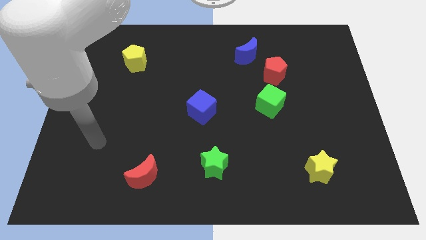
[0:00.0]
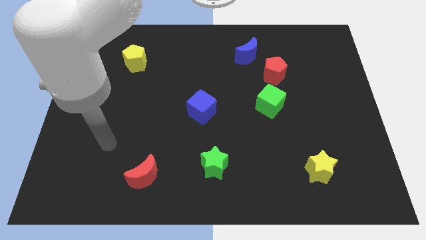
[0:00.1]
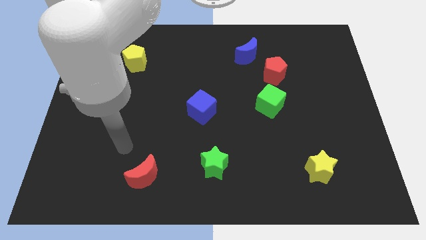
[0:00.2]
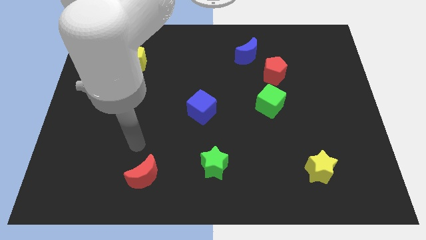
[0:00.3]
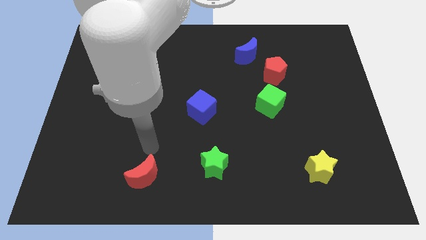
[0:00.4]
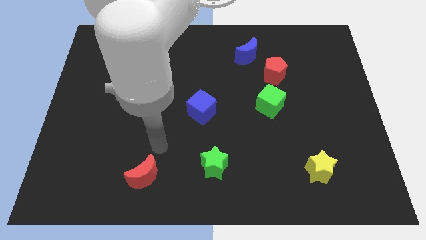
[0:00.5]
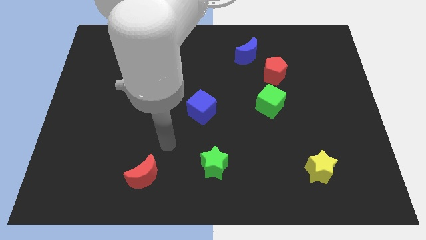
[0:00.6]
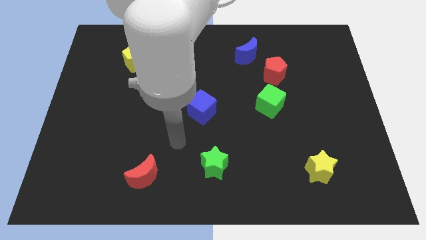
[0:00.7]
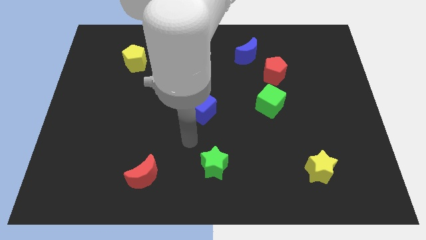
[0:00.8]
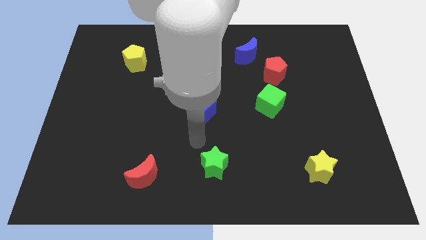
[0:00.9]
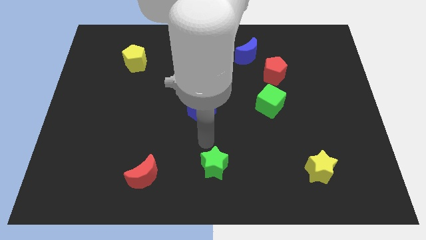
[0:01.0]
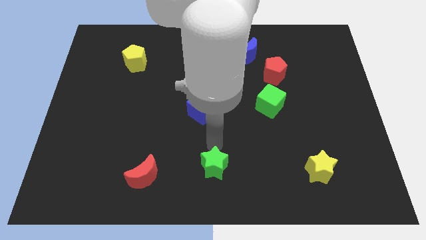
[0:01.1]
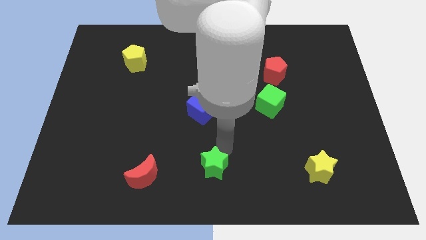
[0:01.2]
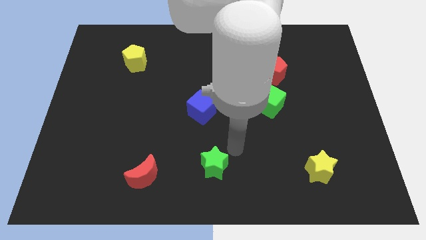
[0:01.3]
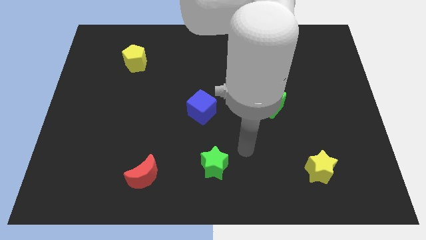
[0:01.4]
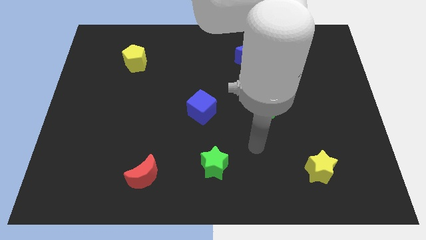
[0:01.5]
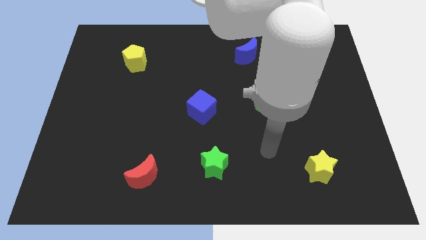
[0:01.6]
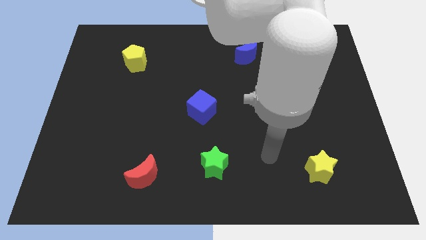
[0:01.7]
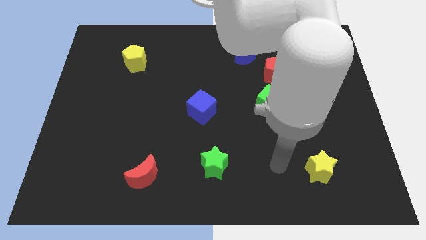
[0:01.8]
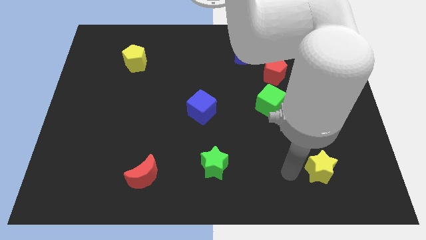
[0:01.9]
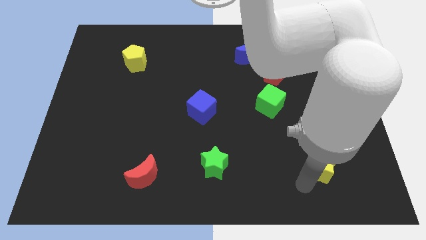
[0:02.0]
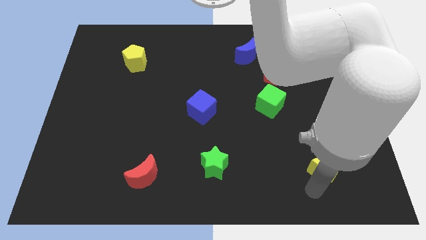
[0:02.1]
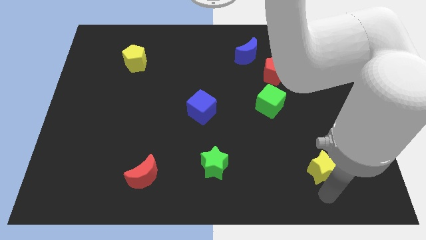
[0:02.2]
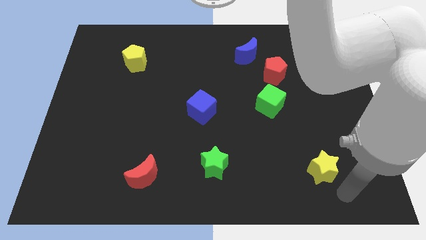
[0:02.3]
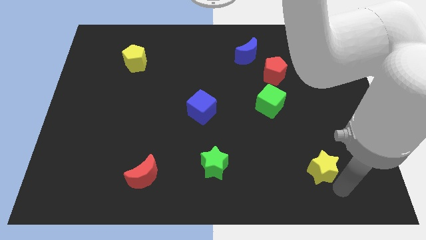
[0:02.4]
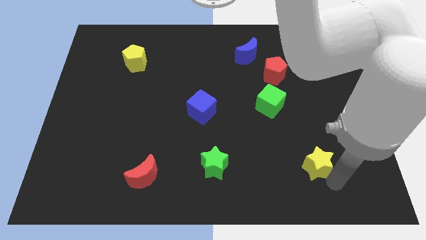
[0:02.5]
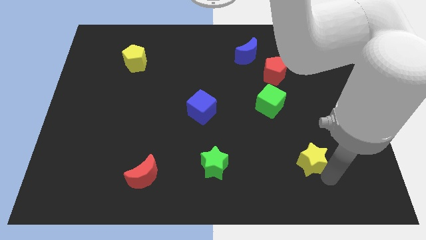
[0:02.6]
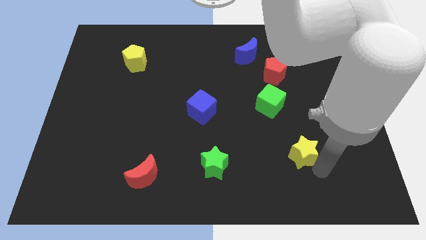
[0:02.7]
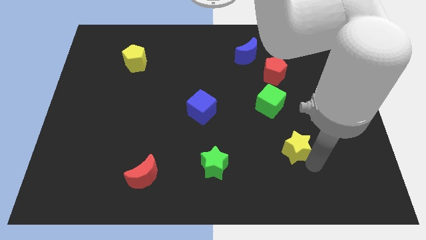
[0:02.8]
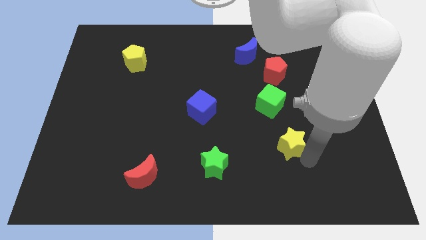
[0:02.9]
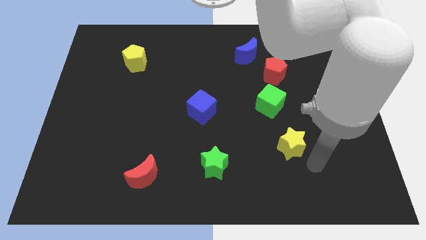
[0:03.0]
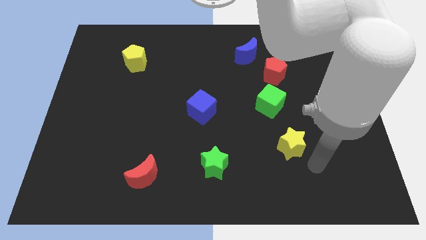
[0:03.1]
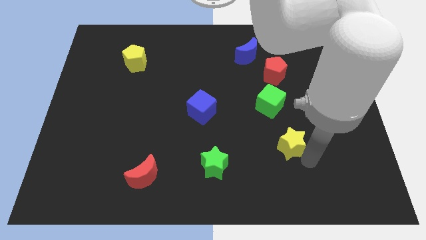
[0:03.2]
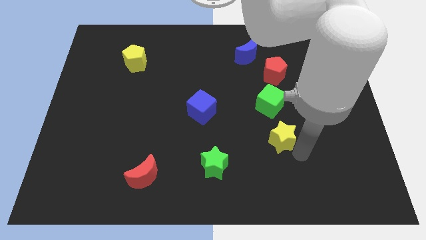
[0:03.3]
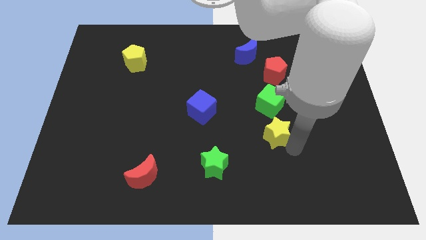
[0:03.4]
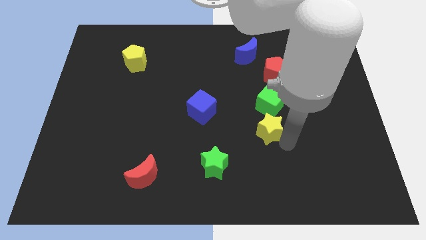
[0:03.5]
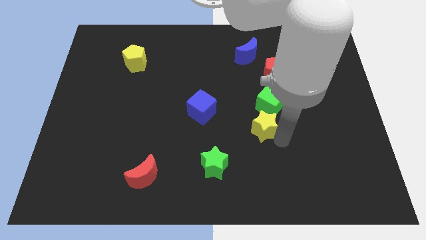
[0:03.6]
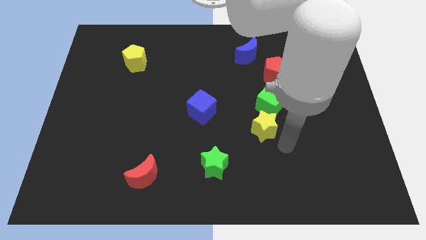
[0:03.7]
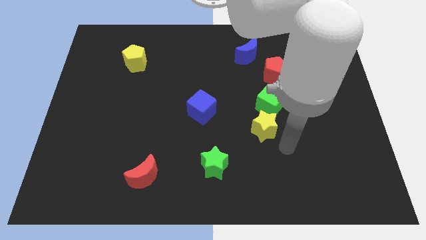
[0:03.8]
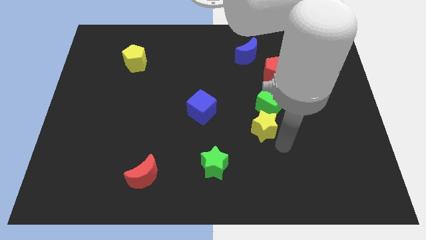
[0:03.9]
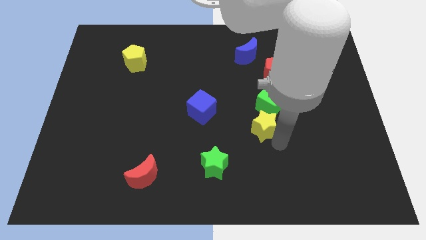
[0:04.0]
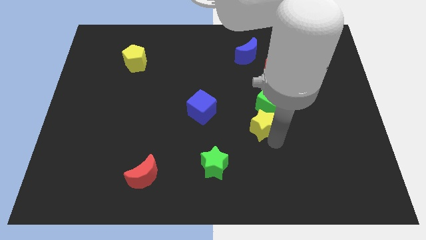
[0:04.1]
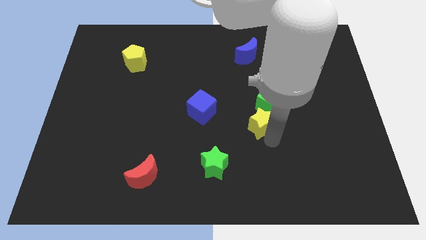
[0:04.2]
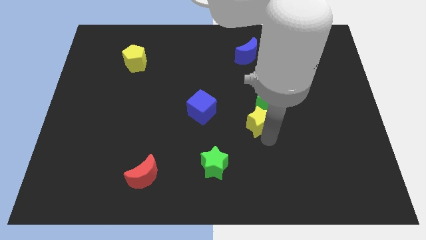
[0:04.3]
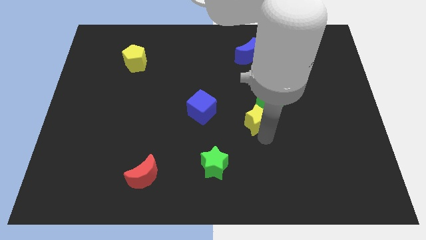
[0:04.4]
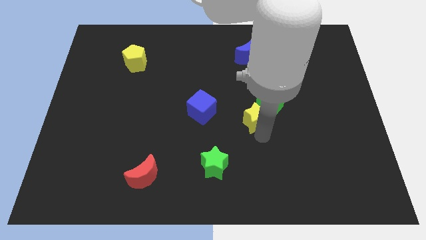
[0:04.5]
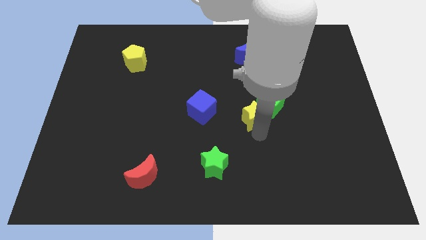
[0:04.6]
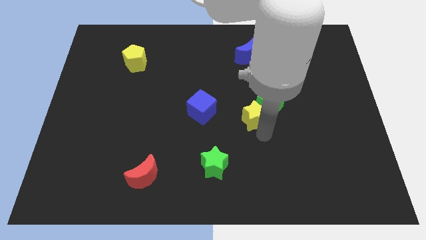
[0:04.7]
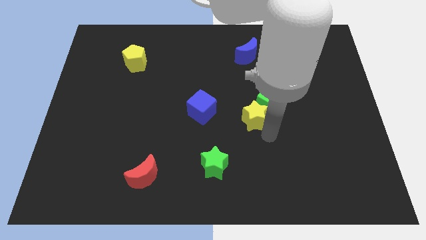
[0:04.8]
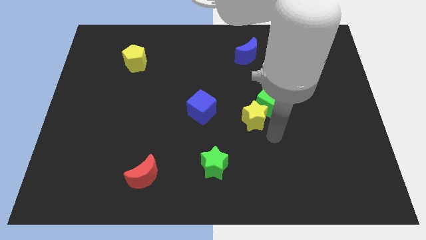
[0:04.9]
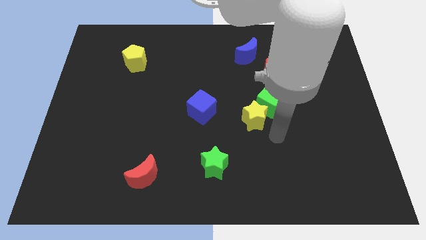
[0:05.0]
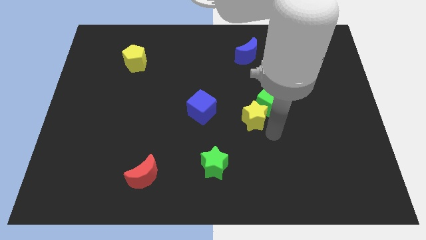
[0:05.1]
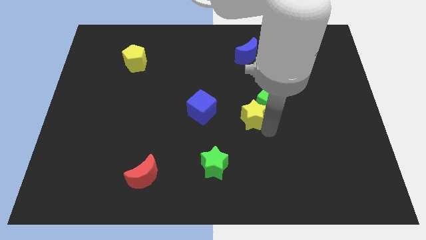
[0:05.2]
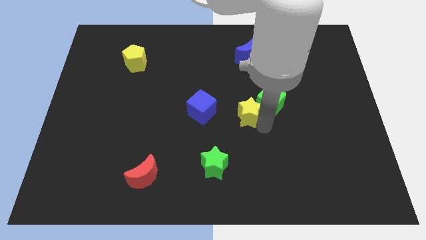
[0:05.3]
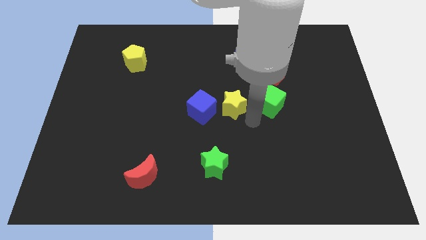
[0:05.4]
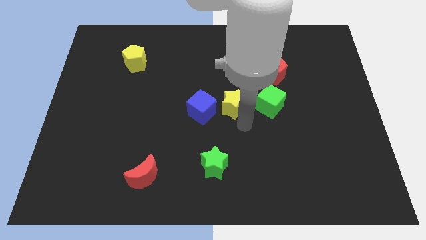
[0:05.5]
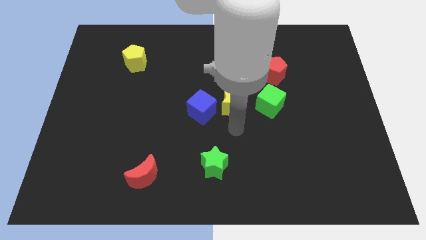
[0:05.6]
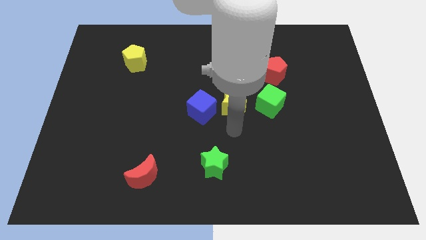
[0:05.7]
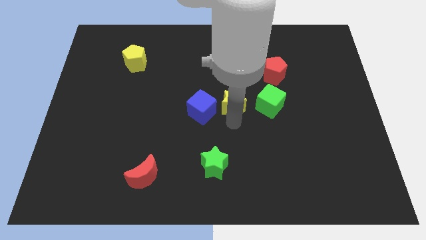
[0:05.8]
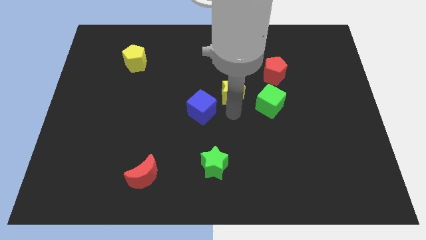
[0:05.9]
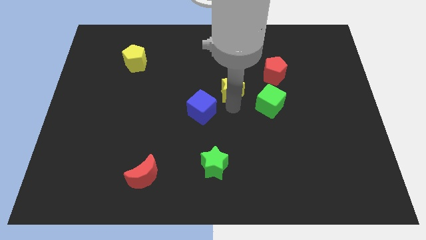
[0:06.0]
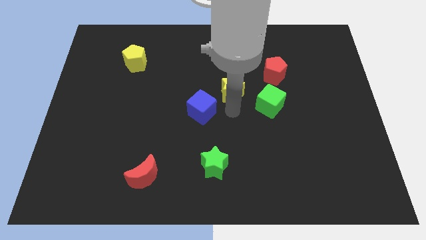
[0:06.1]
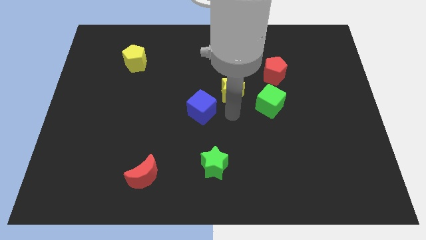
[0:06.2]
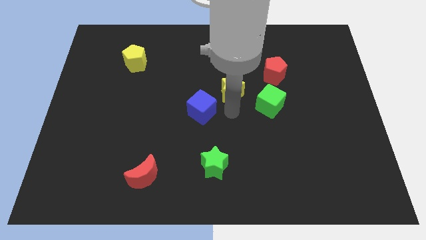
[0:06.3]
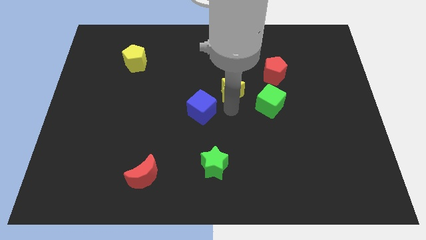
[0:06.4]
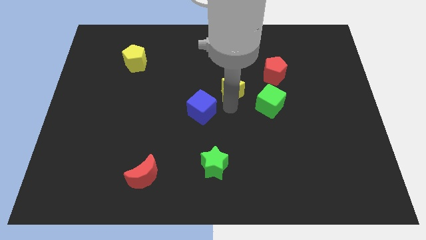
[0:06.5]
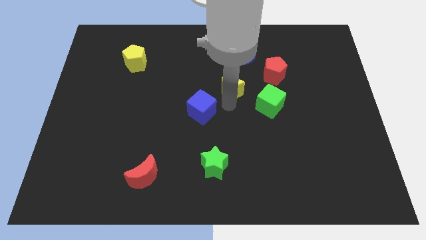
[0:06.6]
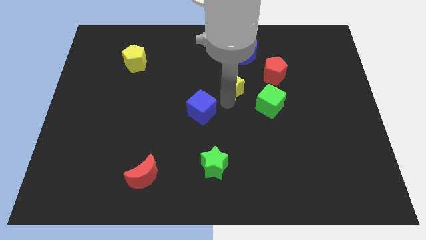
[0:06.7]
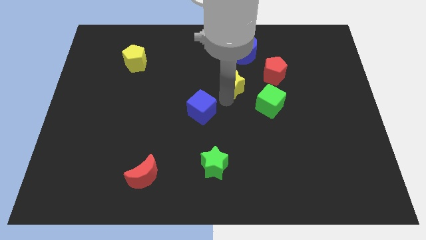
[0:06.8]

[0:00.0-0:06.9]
slide the yellow star just left of the red pentagon
